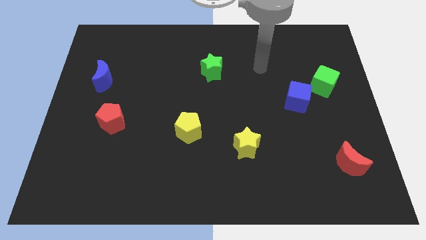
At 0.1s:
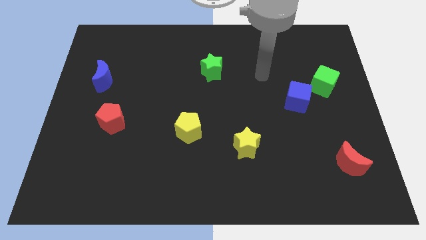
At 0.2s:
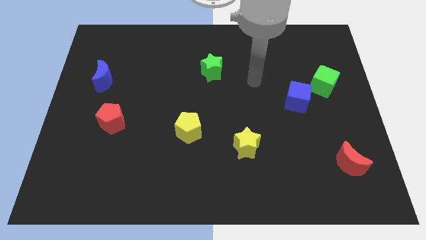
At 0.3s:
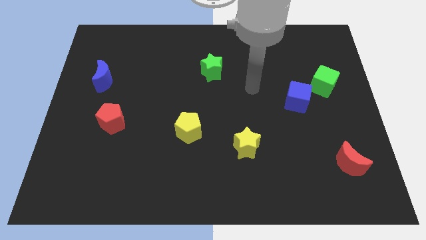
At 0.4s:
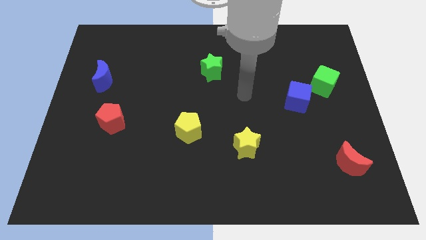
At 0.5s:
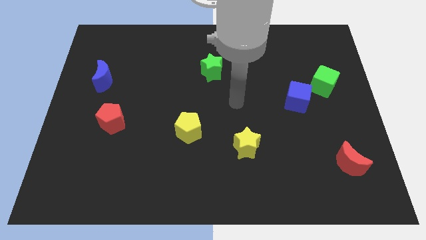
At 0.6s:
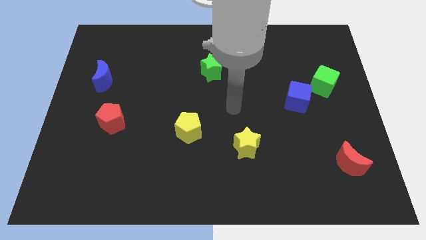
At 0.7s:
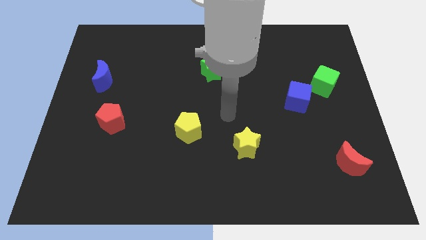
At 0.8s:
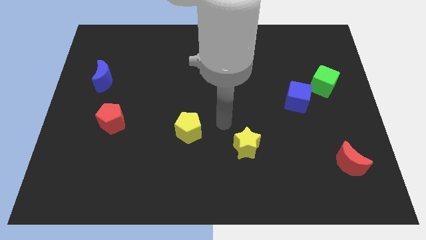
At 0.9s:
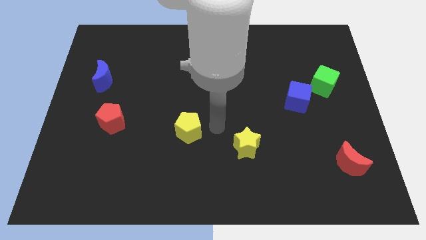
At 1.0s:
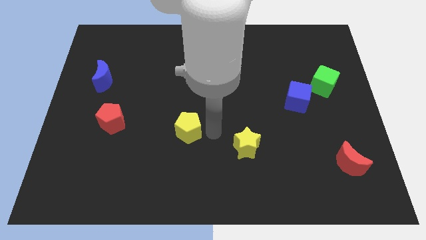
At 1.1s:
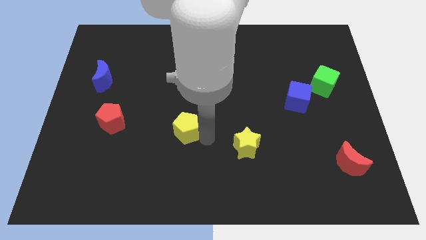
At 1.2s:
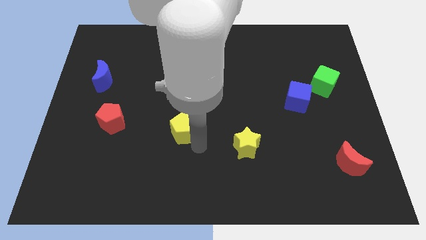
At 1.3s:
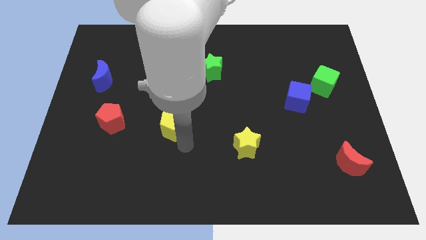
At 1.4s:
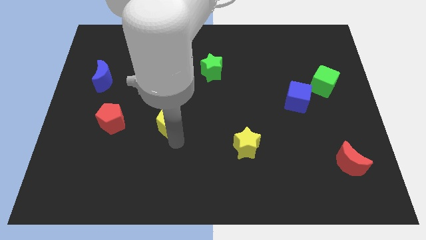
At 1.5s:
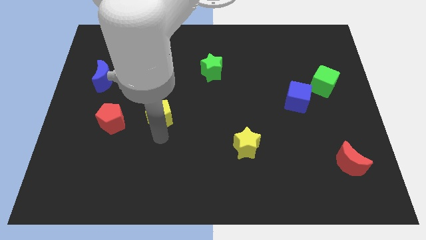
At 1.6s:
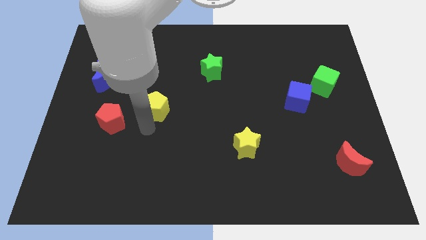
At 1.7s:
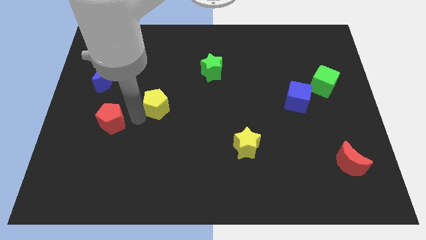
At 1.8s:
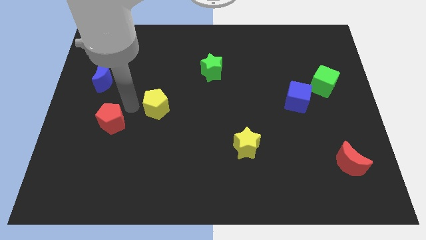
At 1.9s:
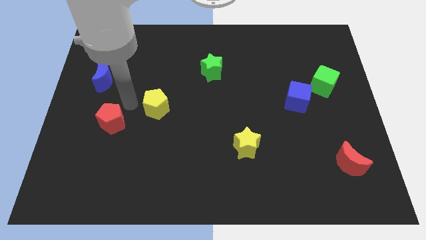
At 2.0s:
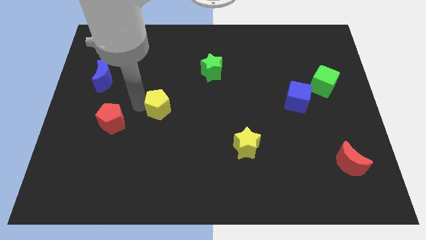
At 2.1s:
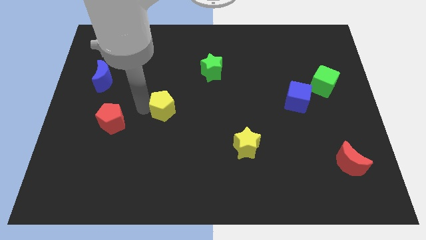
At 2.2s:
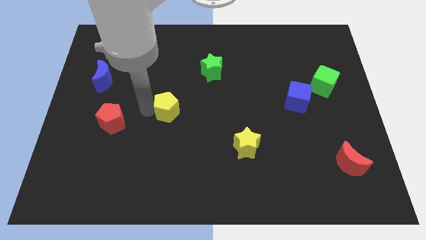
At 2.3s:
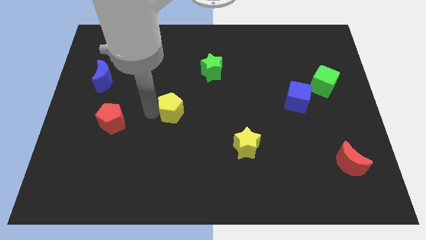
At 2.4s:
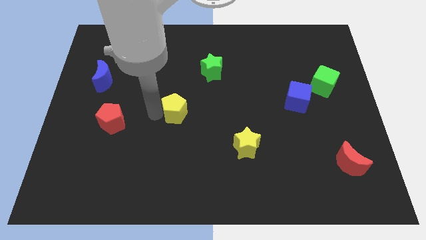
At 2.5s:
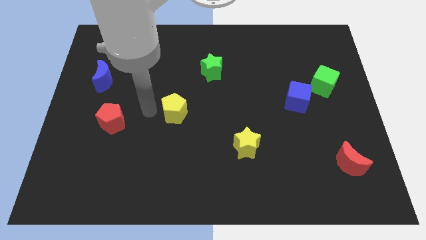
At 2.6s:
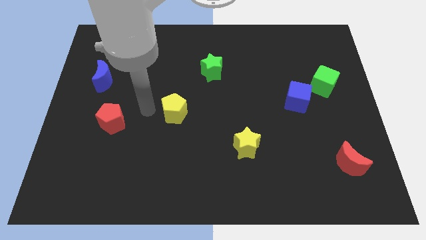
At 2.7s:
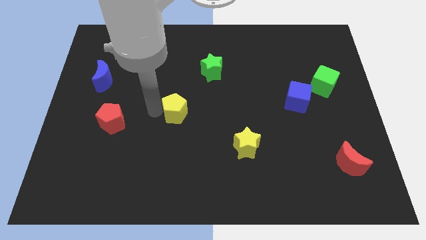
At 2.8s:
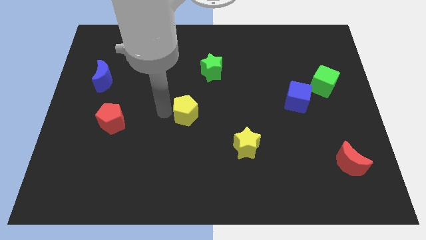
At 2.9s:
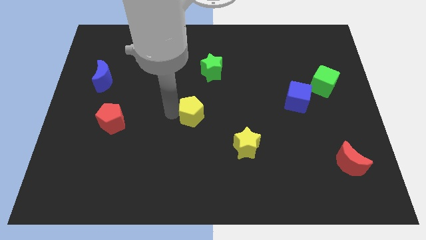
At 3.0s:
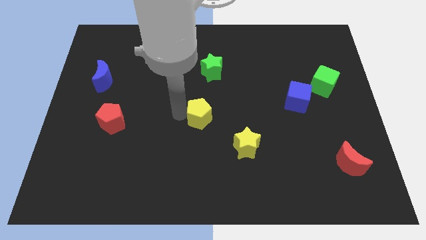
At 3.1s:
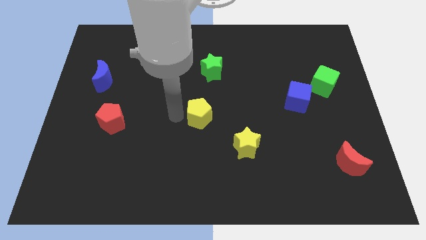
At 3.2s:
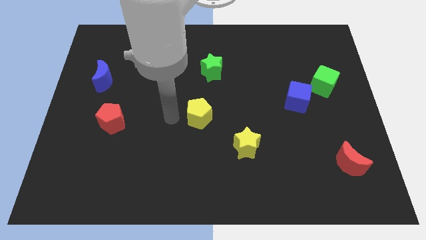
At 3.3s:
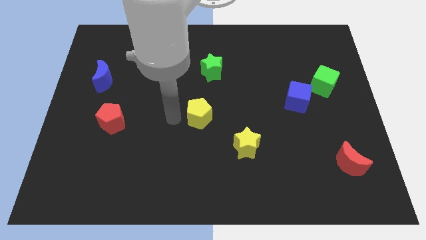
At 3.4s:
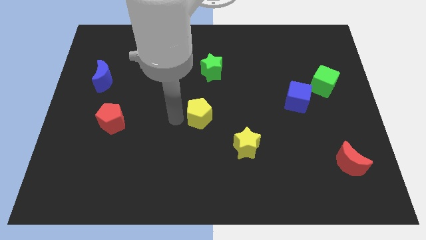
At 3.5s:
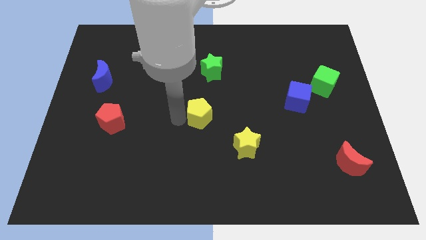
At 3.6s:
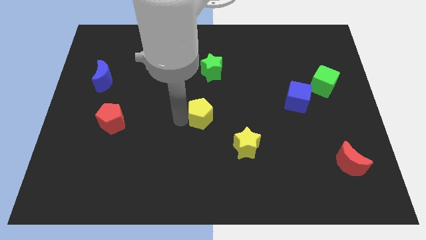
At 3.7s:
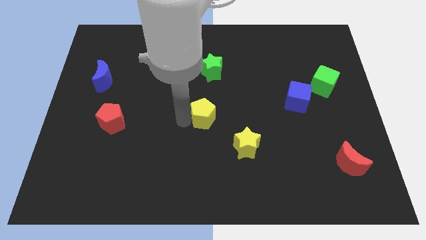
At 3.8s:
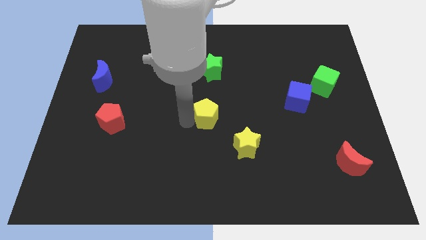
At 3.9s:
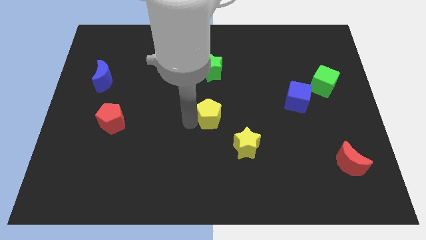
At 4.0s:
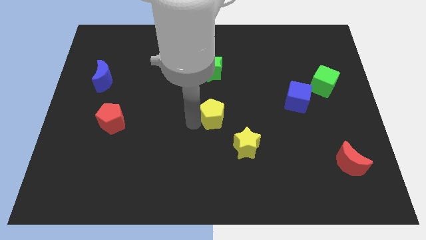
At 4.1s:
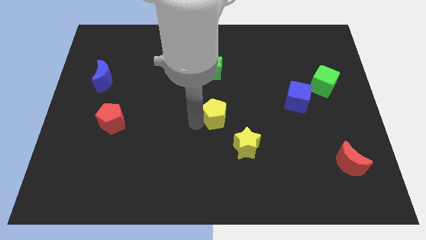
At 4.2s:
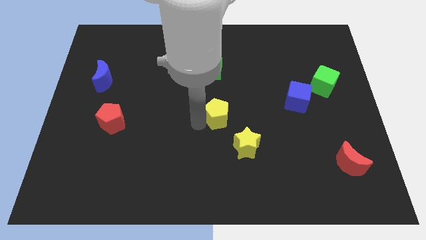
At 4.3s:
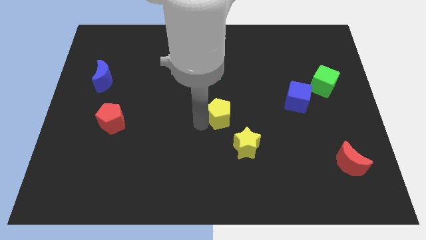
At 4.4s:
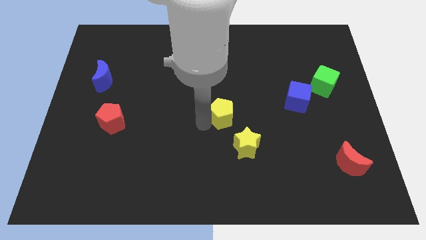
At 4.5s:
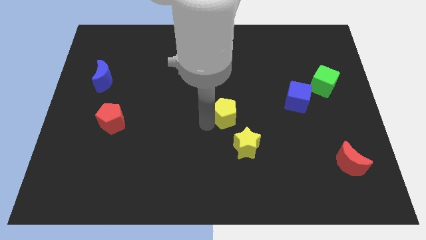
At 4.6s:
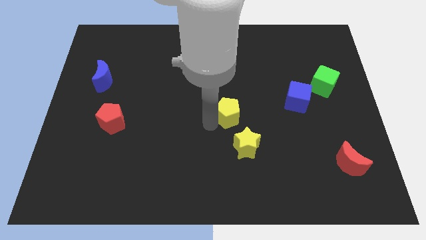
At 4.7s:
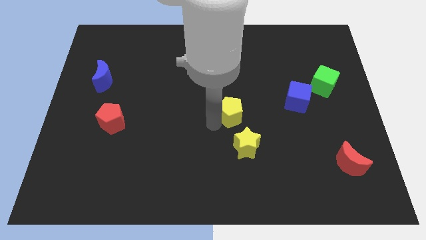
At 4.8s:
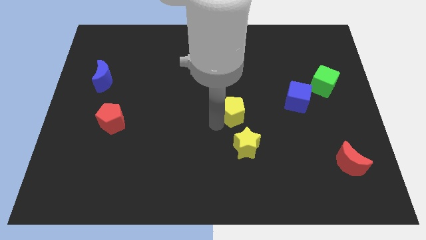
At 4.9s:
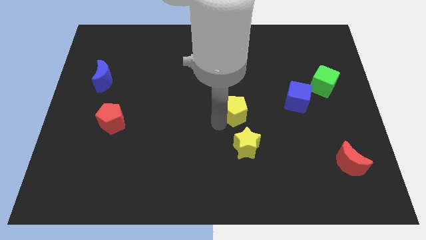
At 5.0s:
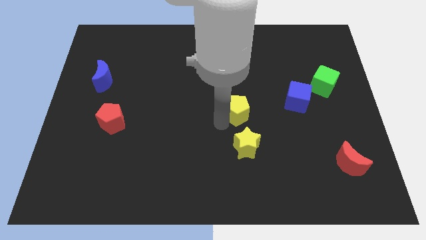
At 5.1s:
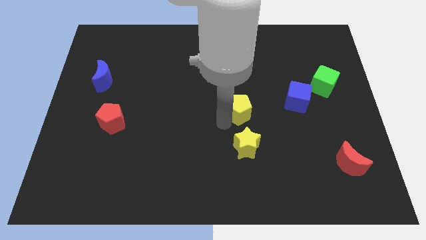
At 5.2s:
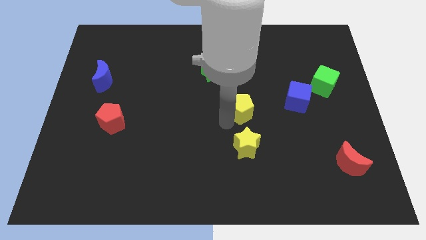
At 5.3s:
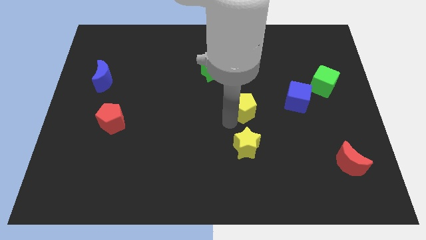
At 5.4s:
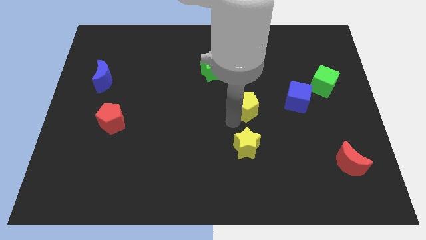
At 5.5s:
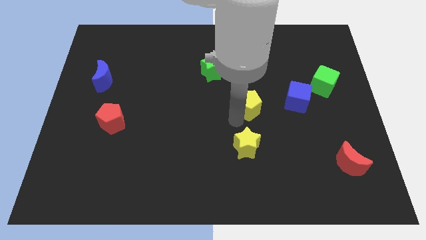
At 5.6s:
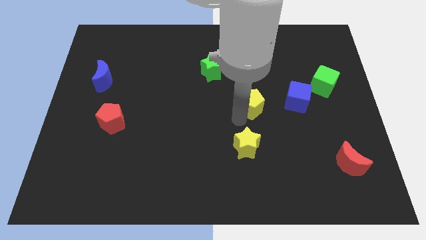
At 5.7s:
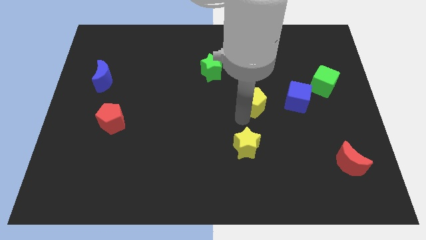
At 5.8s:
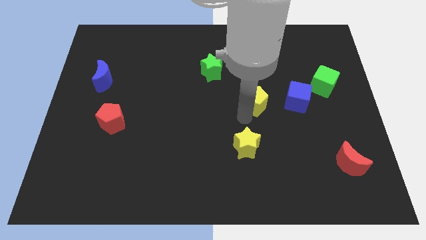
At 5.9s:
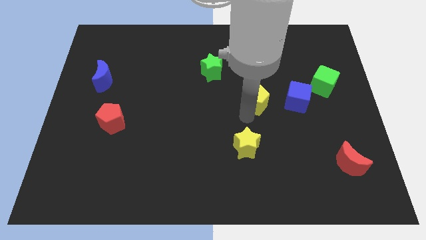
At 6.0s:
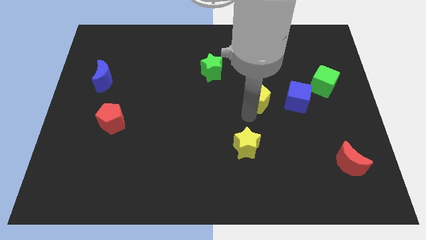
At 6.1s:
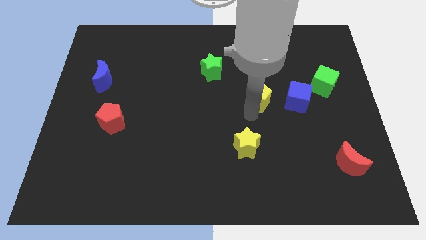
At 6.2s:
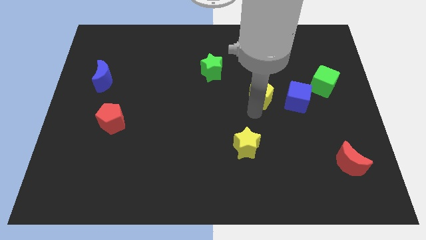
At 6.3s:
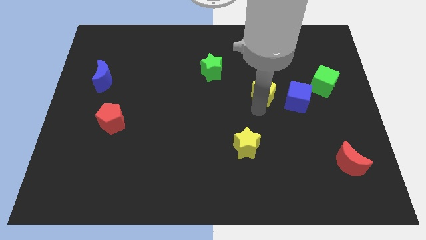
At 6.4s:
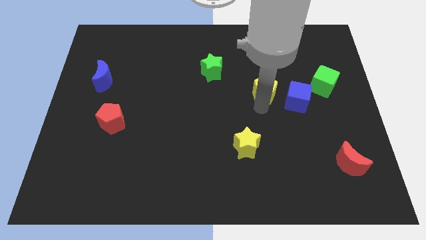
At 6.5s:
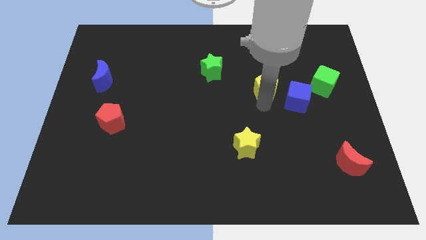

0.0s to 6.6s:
slide the yellow pentagon up and right

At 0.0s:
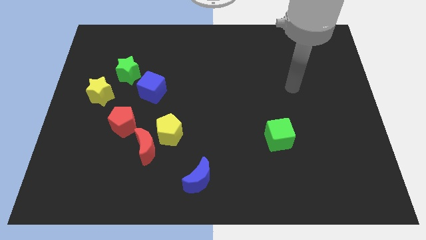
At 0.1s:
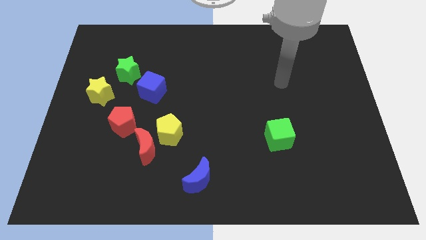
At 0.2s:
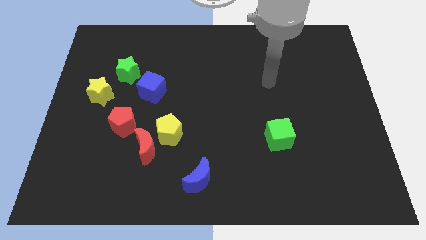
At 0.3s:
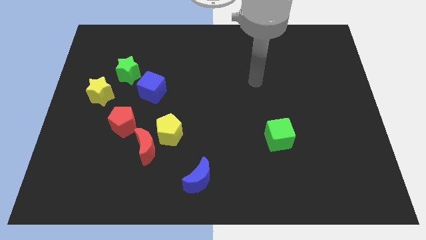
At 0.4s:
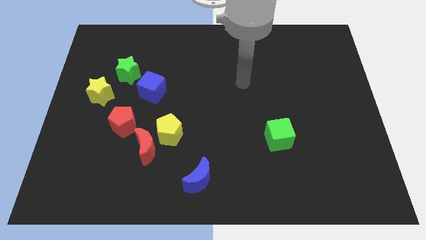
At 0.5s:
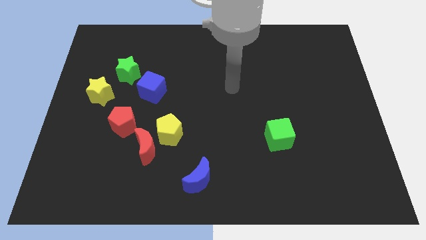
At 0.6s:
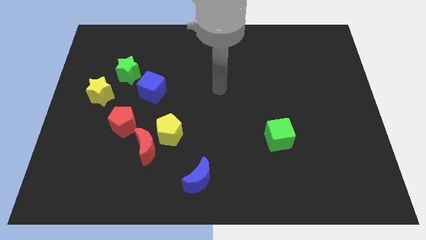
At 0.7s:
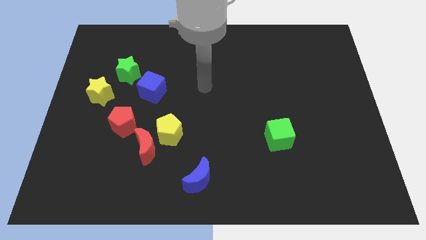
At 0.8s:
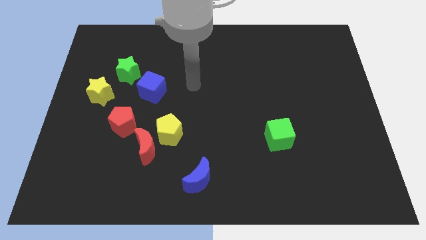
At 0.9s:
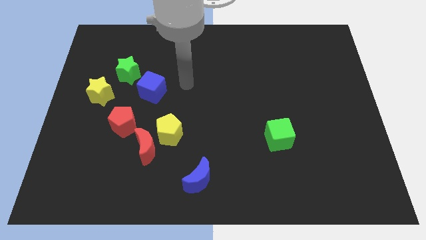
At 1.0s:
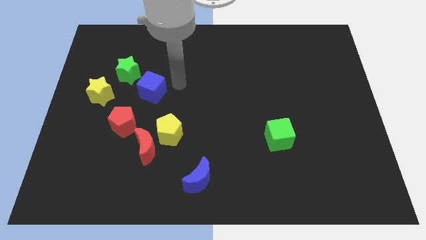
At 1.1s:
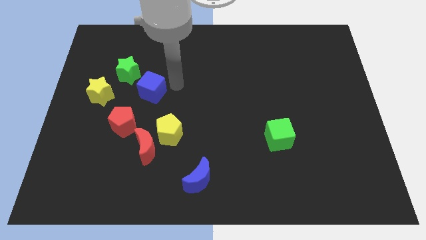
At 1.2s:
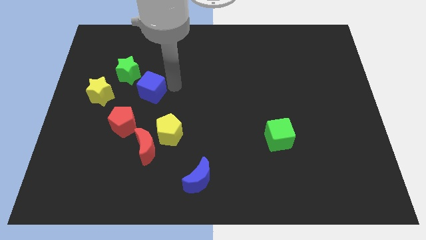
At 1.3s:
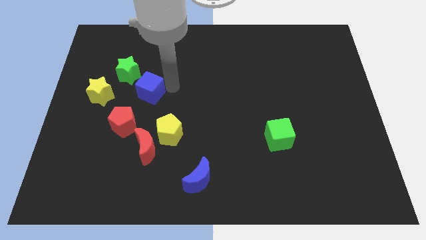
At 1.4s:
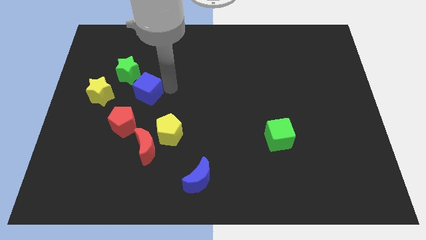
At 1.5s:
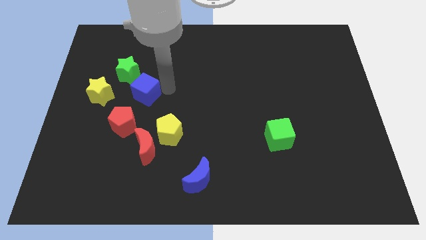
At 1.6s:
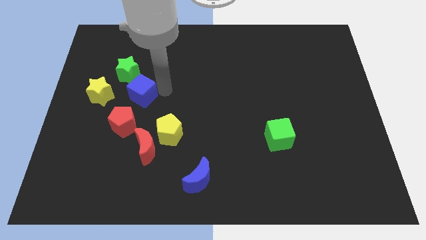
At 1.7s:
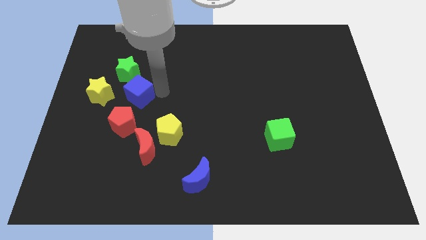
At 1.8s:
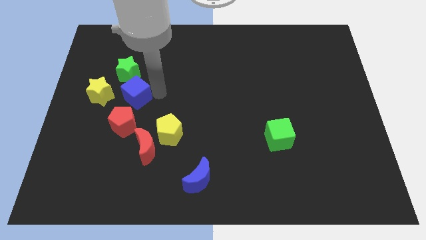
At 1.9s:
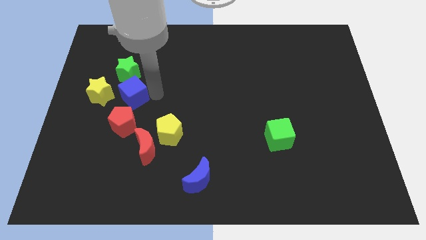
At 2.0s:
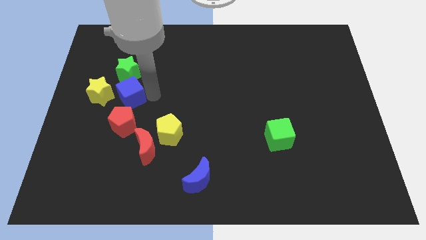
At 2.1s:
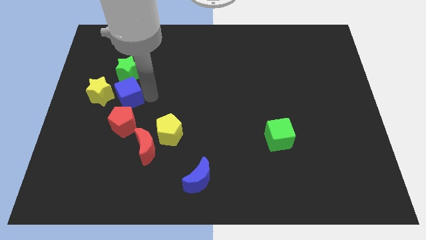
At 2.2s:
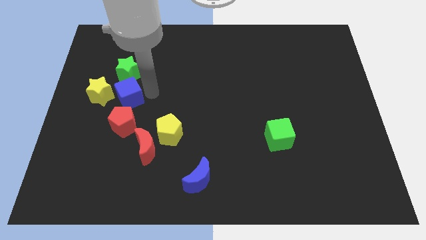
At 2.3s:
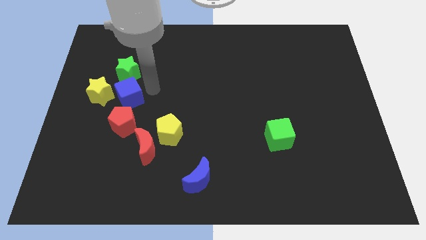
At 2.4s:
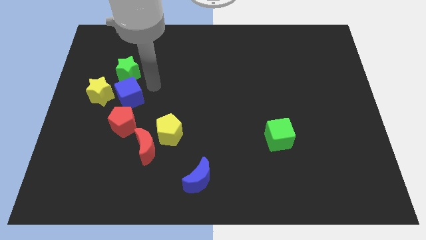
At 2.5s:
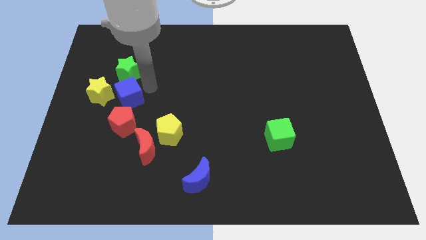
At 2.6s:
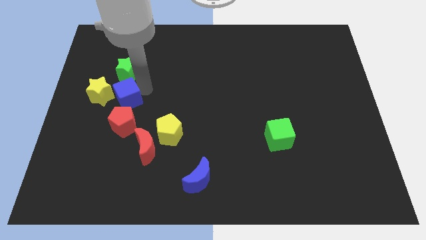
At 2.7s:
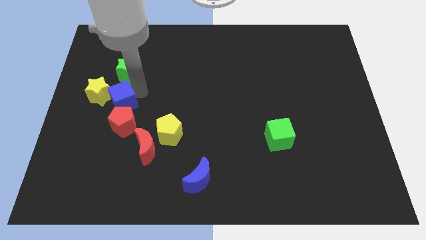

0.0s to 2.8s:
slightly push the blue cube down and left
